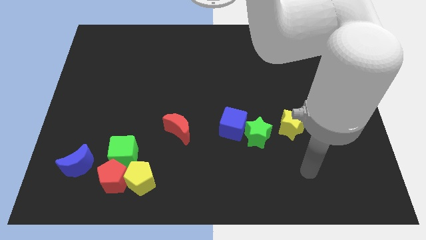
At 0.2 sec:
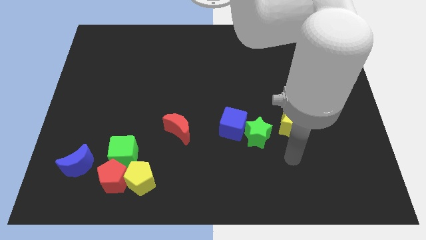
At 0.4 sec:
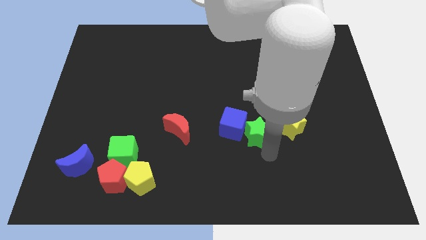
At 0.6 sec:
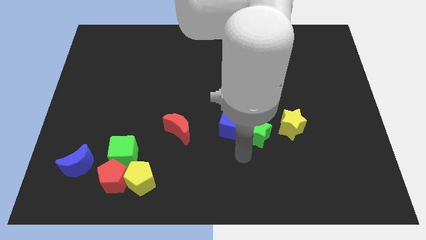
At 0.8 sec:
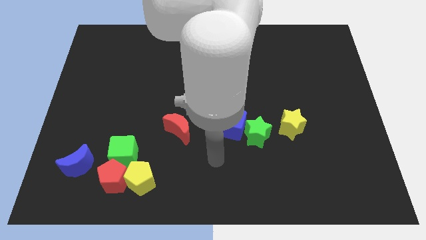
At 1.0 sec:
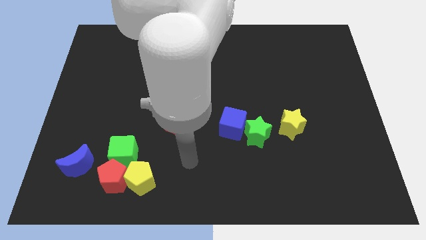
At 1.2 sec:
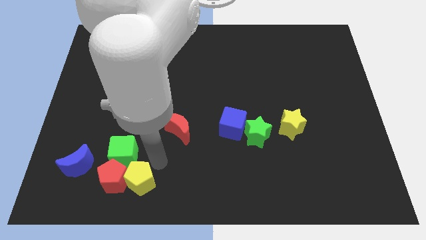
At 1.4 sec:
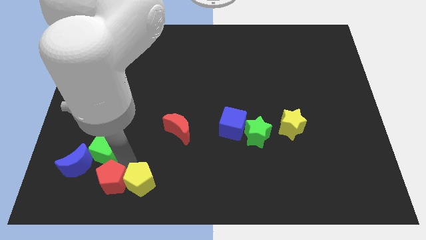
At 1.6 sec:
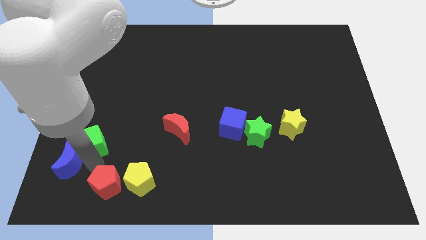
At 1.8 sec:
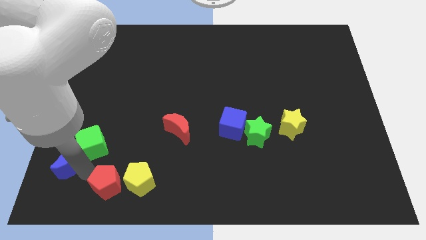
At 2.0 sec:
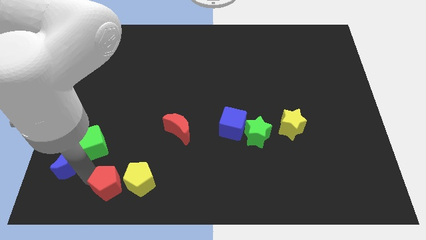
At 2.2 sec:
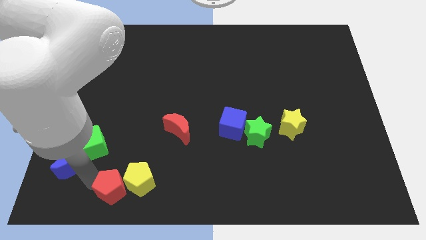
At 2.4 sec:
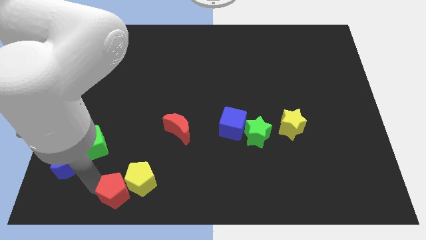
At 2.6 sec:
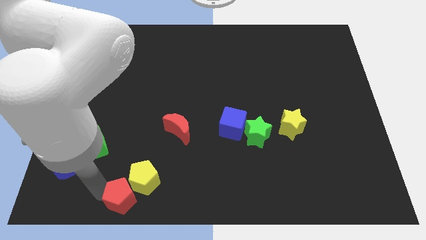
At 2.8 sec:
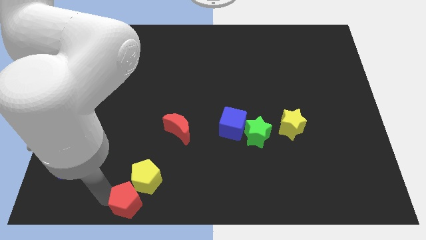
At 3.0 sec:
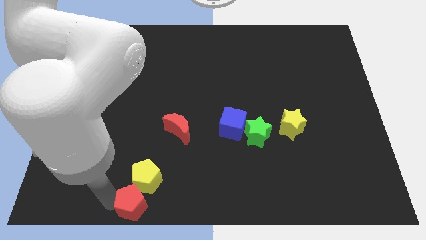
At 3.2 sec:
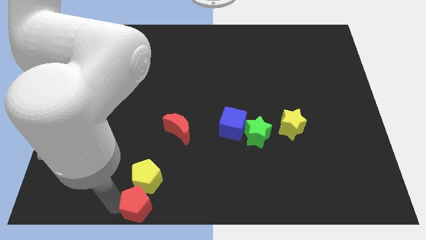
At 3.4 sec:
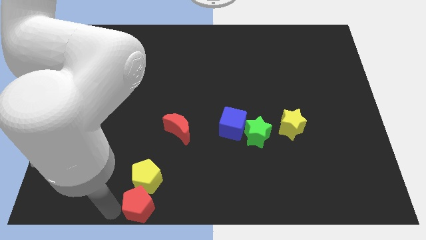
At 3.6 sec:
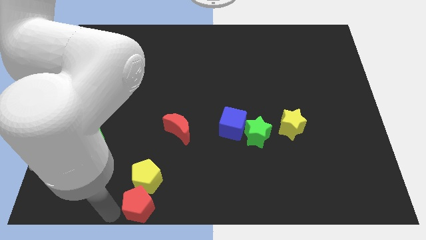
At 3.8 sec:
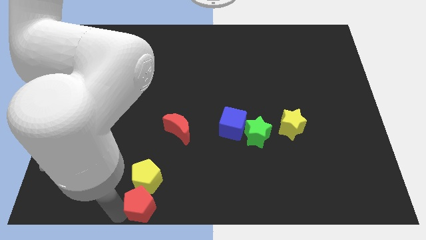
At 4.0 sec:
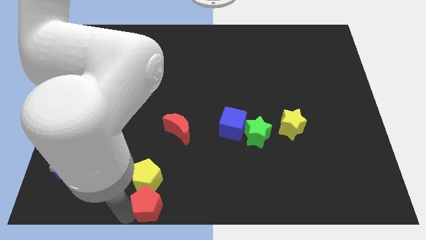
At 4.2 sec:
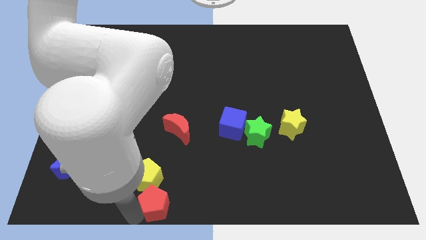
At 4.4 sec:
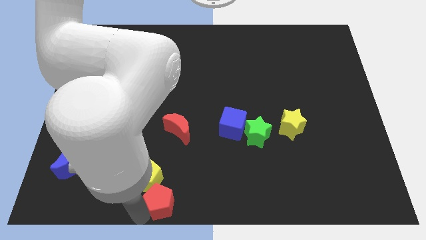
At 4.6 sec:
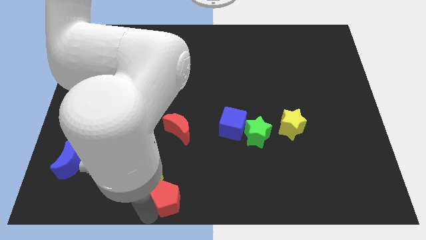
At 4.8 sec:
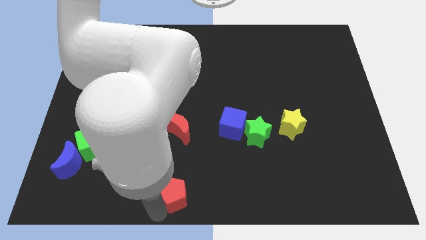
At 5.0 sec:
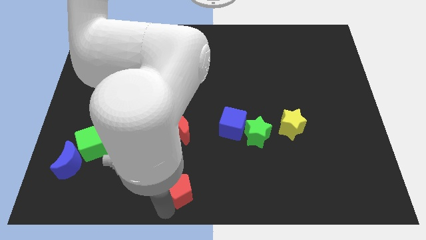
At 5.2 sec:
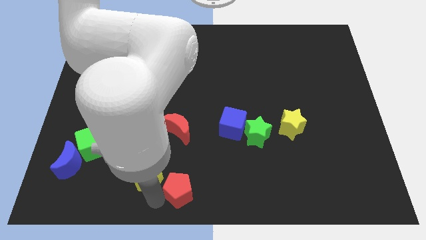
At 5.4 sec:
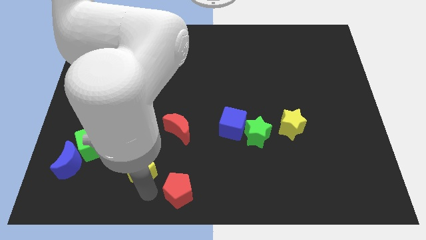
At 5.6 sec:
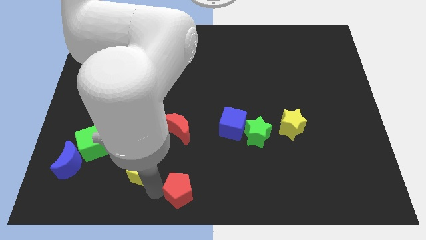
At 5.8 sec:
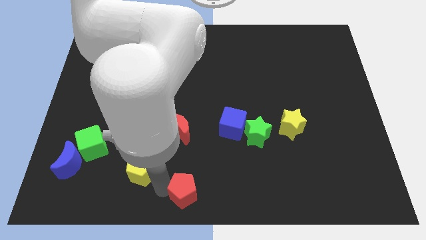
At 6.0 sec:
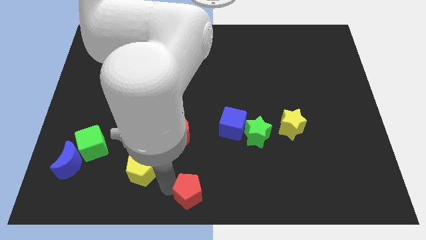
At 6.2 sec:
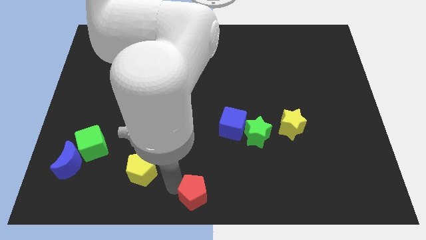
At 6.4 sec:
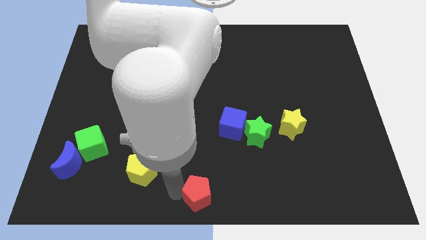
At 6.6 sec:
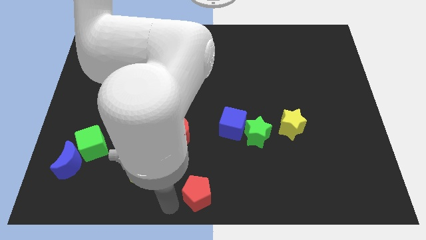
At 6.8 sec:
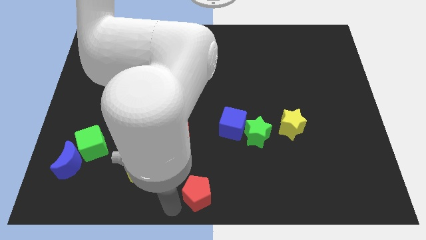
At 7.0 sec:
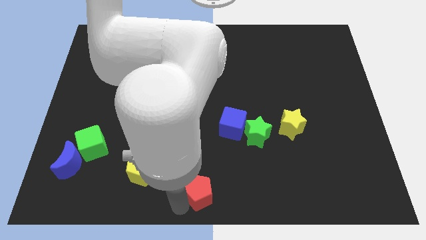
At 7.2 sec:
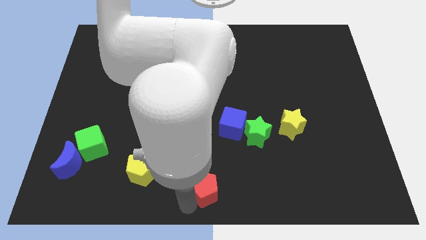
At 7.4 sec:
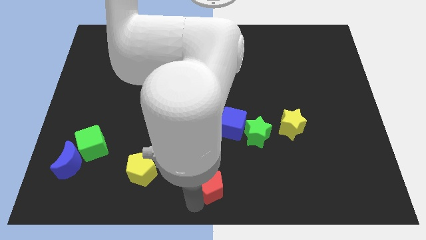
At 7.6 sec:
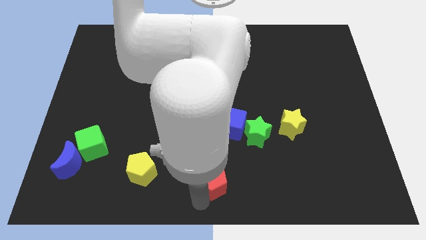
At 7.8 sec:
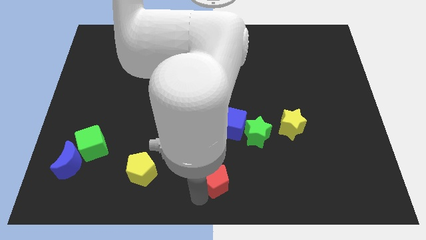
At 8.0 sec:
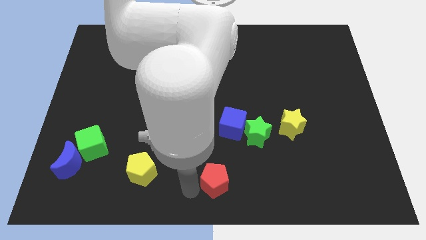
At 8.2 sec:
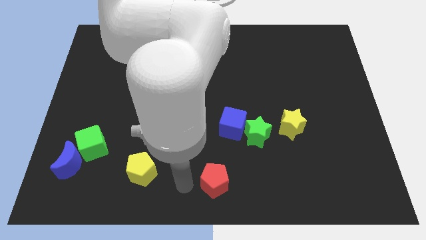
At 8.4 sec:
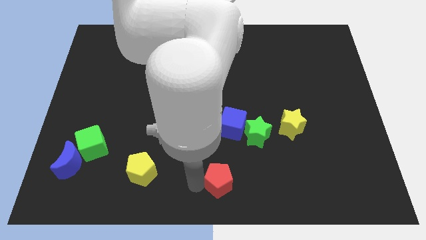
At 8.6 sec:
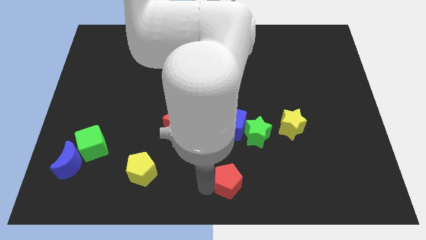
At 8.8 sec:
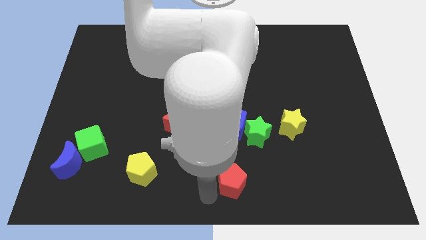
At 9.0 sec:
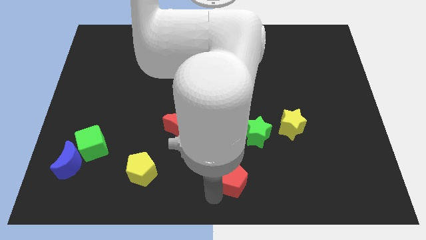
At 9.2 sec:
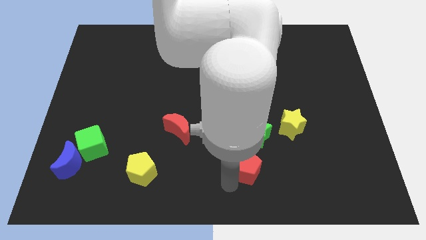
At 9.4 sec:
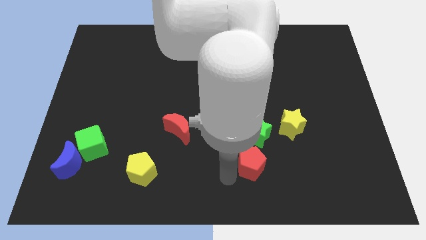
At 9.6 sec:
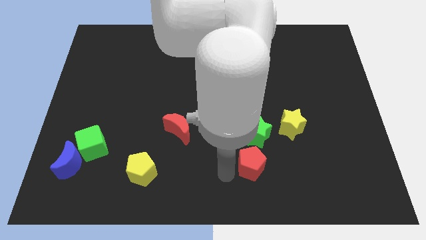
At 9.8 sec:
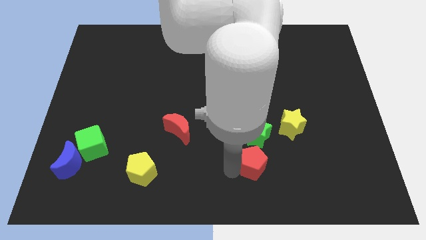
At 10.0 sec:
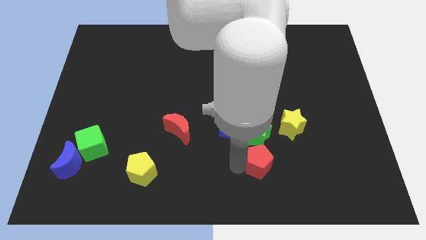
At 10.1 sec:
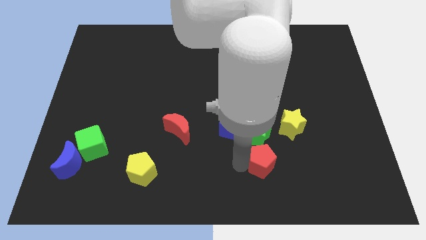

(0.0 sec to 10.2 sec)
slide the red pentagon to the bottom right of the green star

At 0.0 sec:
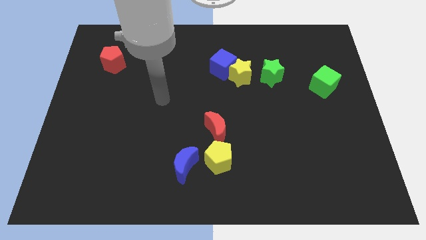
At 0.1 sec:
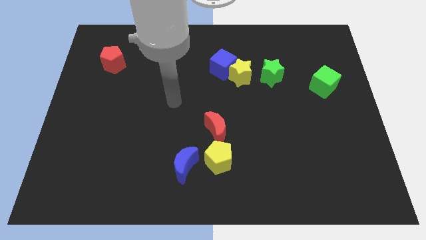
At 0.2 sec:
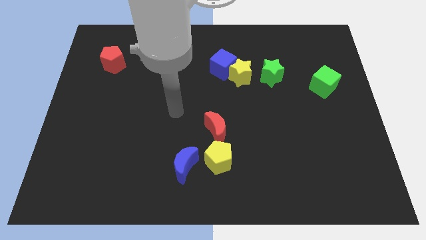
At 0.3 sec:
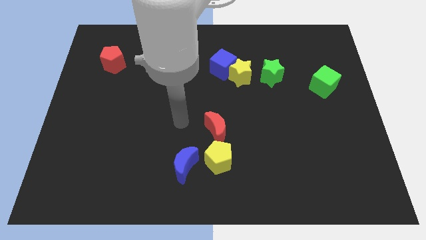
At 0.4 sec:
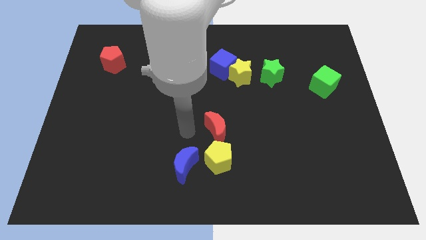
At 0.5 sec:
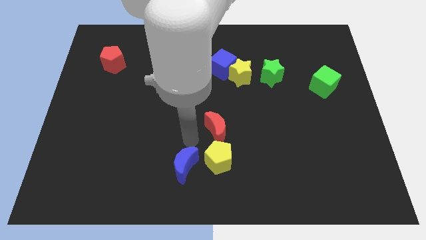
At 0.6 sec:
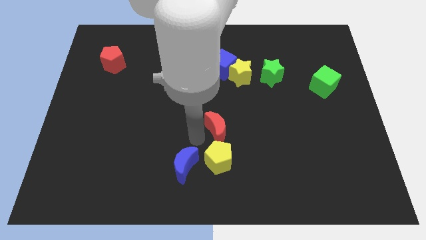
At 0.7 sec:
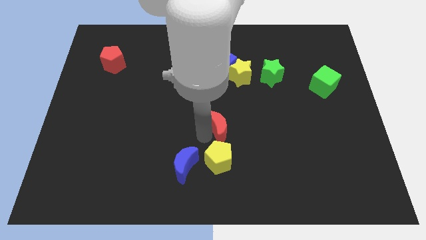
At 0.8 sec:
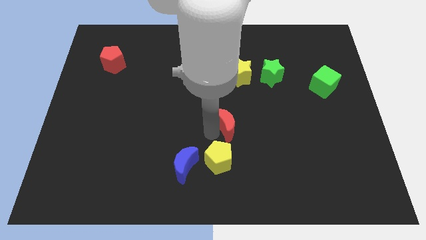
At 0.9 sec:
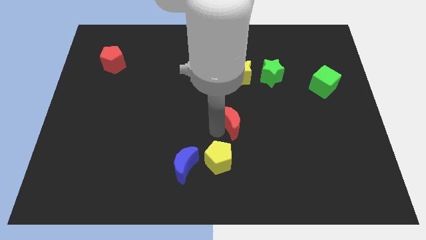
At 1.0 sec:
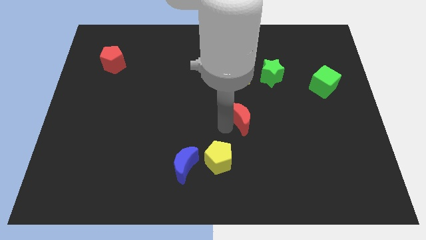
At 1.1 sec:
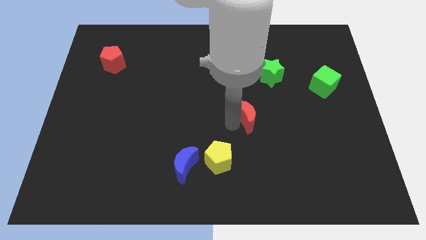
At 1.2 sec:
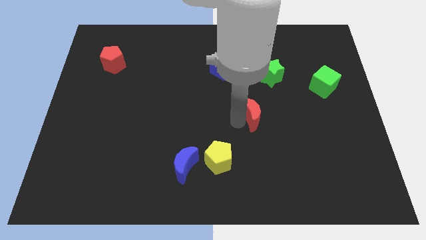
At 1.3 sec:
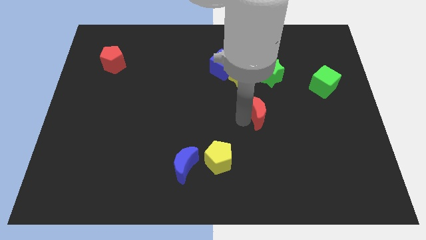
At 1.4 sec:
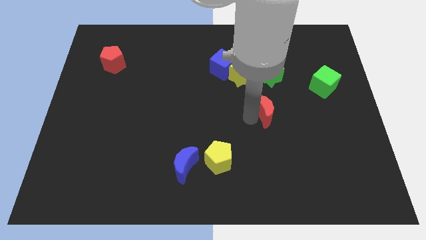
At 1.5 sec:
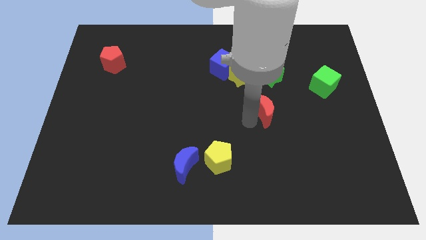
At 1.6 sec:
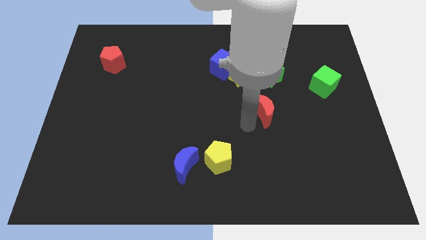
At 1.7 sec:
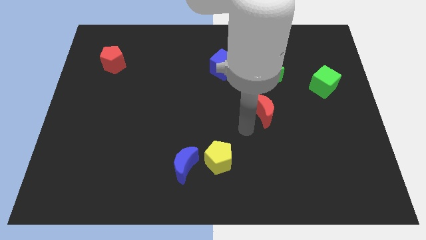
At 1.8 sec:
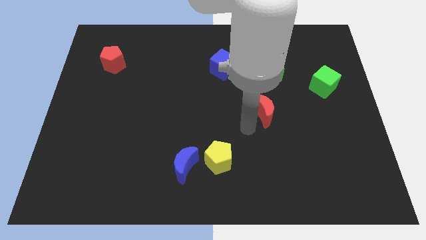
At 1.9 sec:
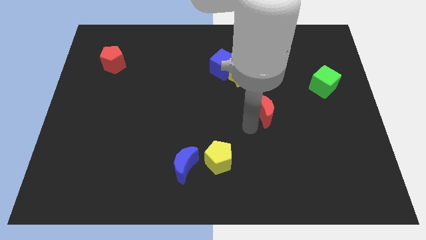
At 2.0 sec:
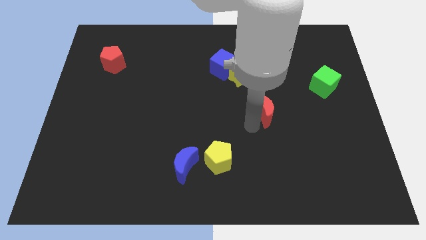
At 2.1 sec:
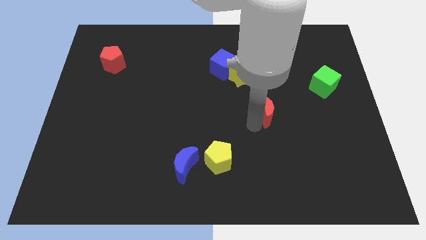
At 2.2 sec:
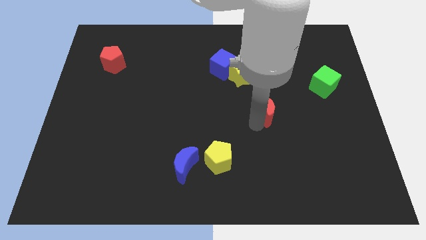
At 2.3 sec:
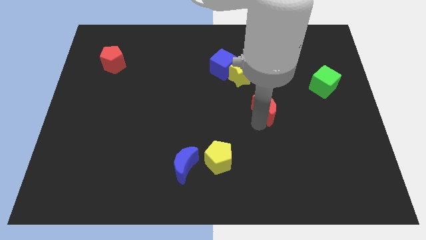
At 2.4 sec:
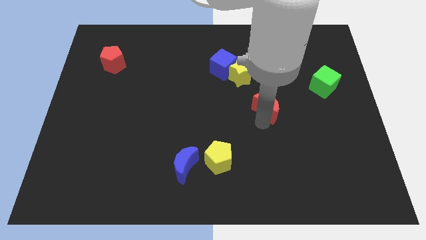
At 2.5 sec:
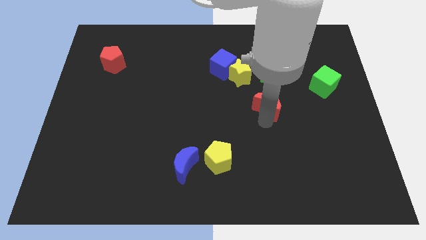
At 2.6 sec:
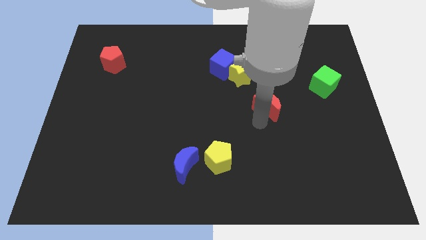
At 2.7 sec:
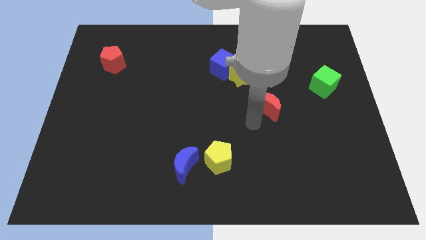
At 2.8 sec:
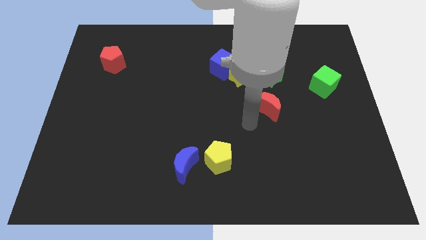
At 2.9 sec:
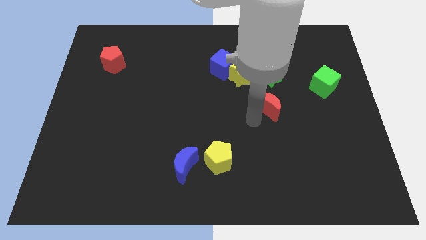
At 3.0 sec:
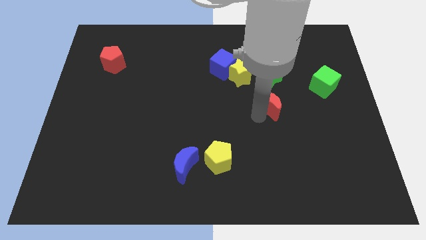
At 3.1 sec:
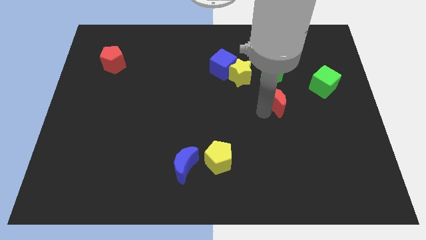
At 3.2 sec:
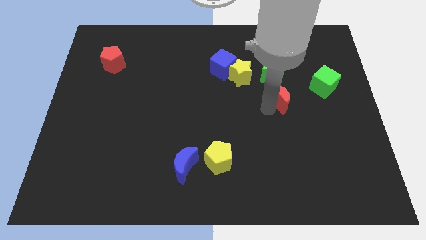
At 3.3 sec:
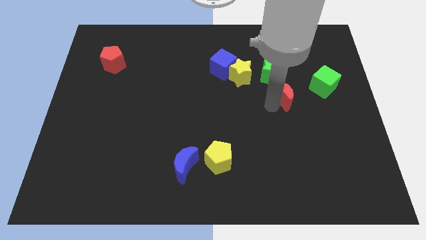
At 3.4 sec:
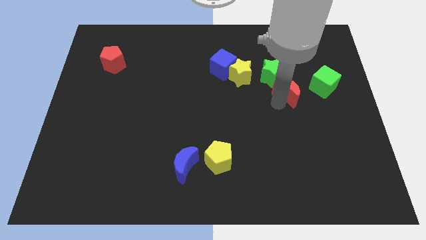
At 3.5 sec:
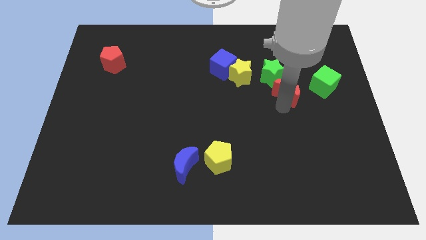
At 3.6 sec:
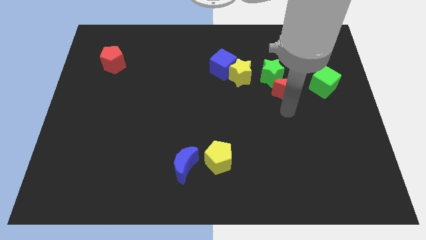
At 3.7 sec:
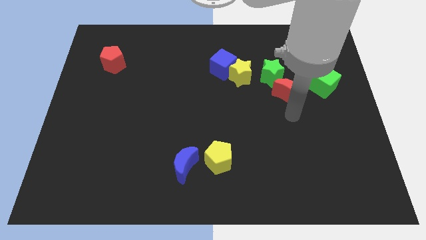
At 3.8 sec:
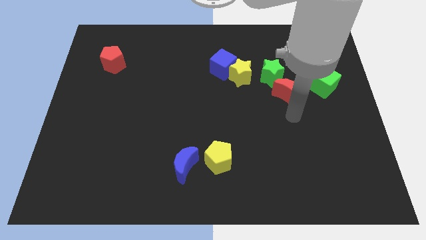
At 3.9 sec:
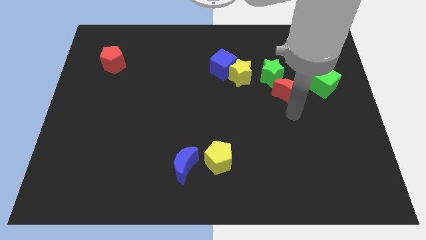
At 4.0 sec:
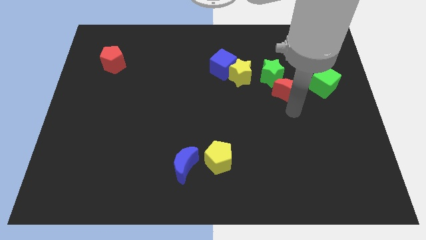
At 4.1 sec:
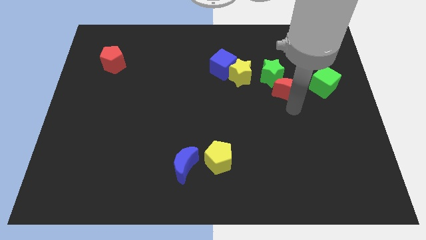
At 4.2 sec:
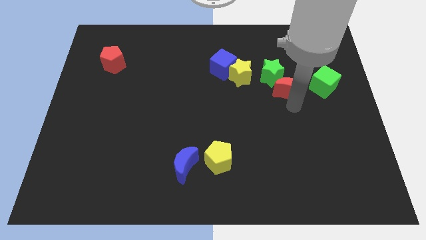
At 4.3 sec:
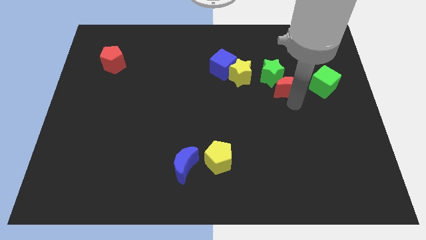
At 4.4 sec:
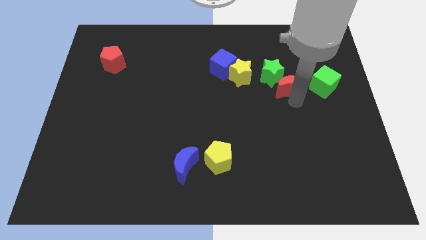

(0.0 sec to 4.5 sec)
push the red moon right of the yellow star
